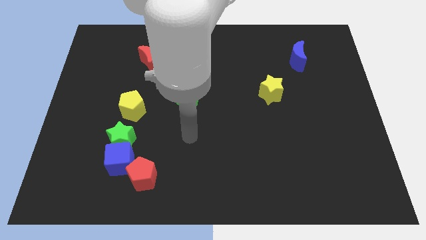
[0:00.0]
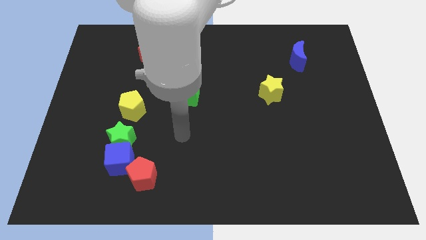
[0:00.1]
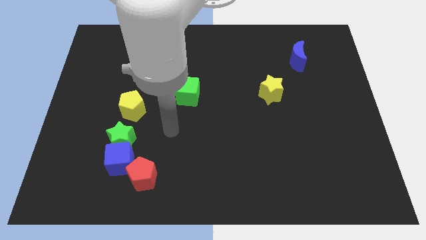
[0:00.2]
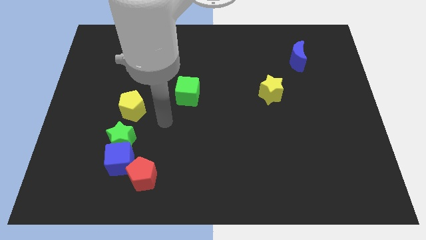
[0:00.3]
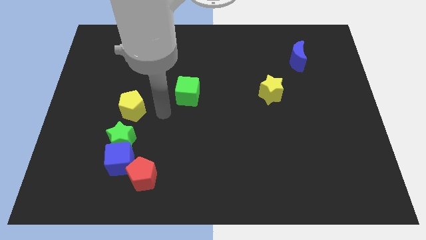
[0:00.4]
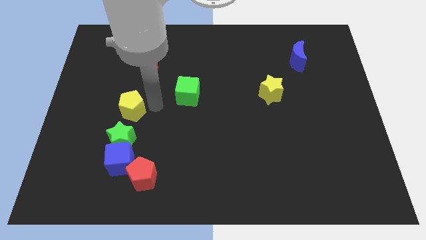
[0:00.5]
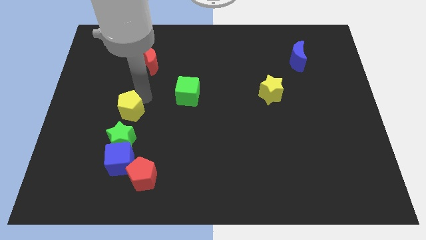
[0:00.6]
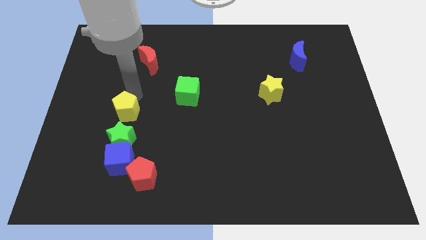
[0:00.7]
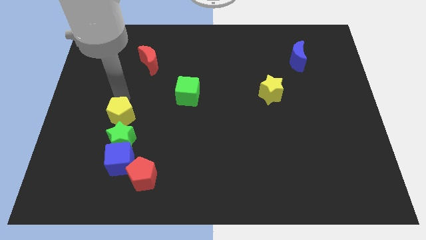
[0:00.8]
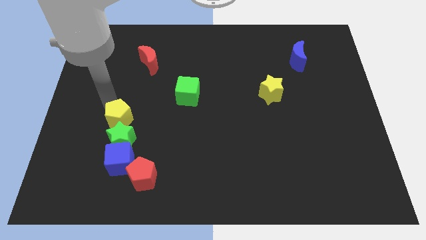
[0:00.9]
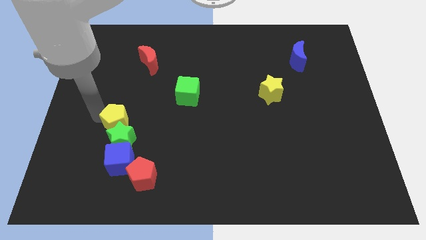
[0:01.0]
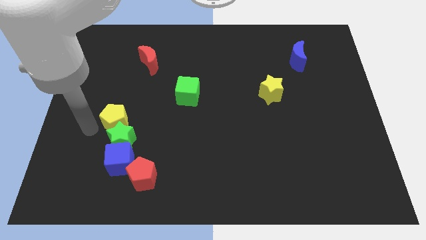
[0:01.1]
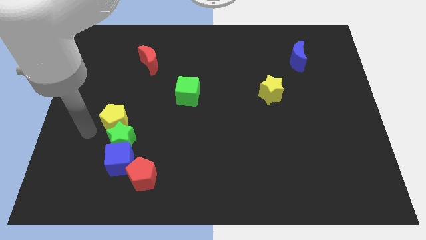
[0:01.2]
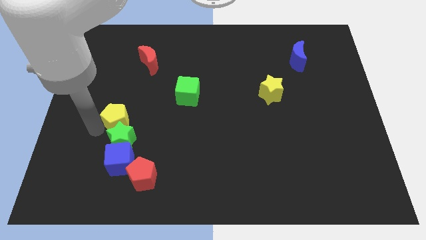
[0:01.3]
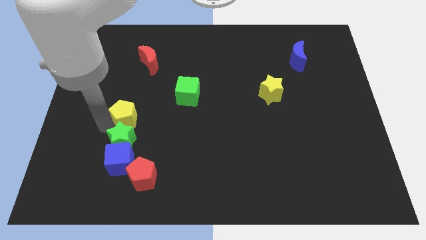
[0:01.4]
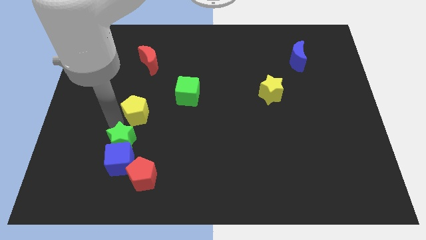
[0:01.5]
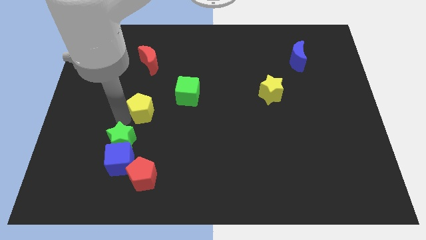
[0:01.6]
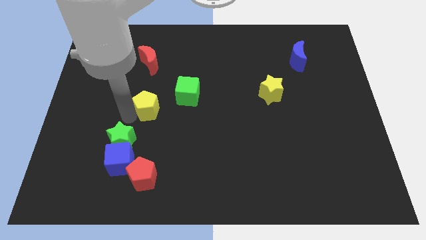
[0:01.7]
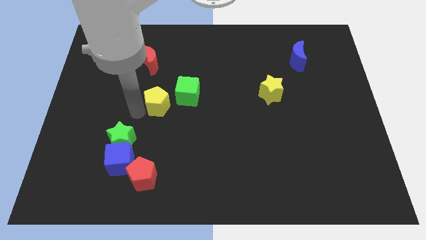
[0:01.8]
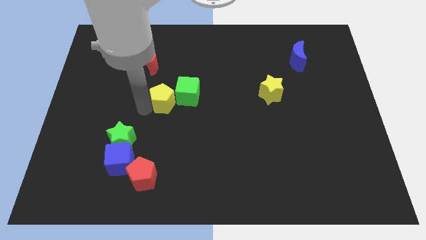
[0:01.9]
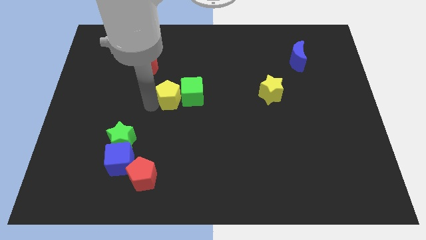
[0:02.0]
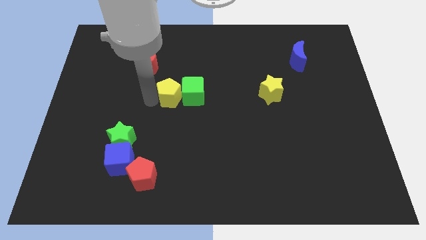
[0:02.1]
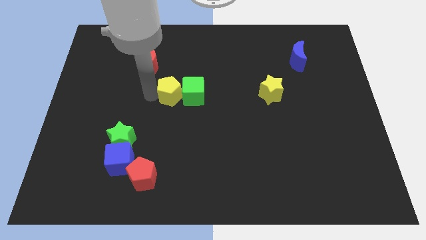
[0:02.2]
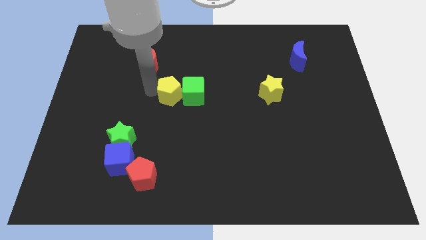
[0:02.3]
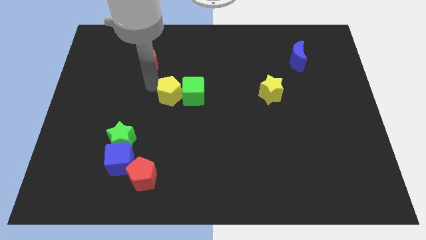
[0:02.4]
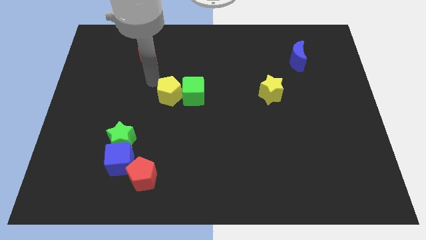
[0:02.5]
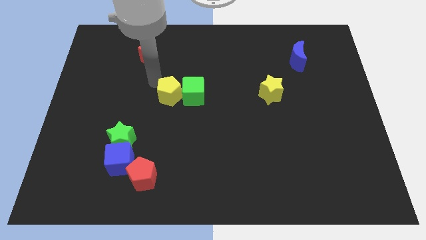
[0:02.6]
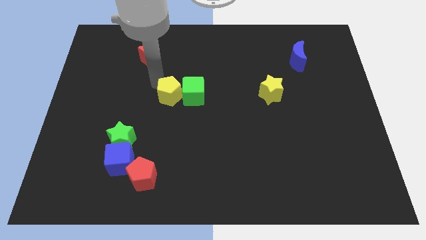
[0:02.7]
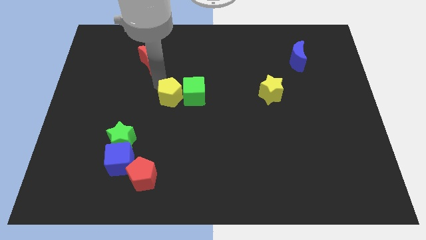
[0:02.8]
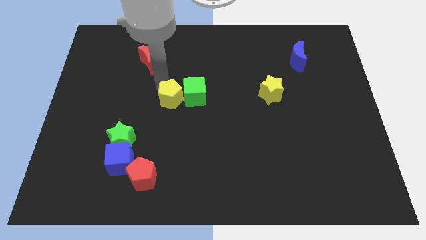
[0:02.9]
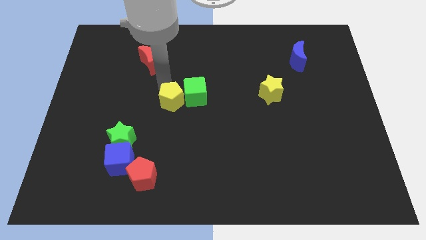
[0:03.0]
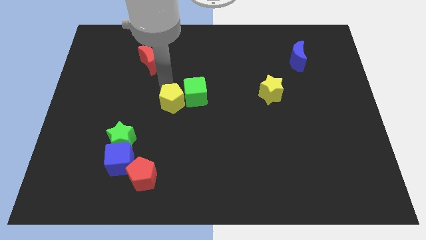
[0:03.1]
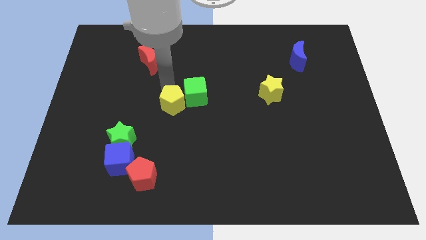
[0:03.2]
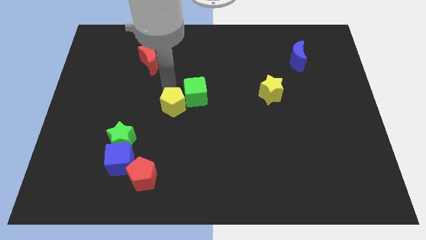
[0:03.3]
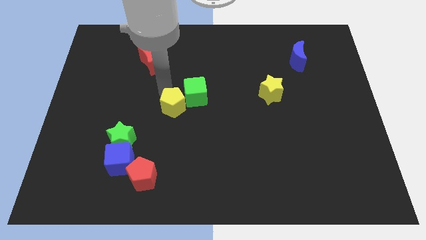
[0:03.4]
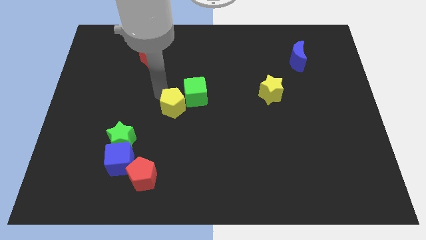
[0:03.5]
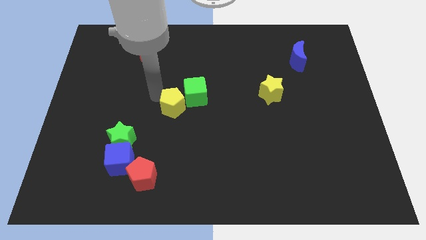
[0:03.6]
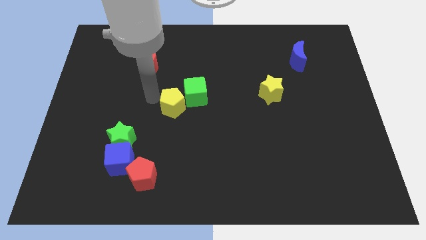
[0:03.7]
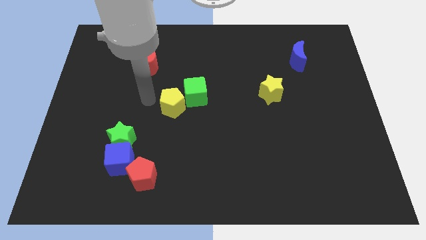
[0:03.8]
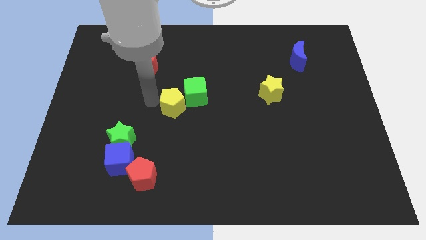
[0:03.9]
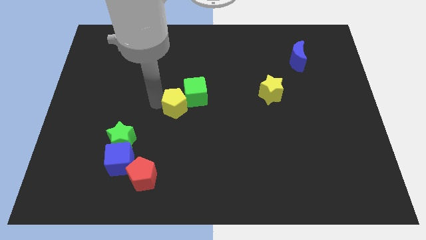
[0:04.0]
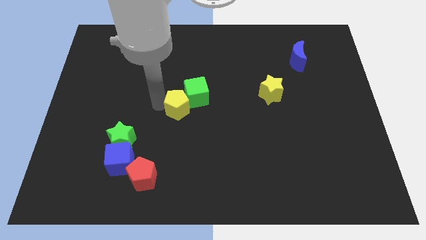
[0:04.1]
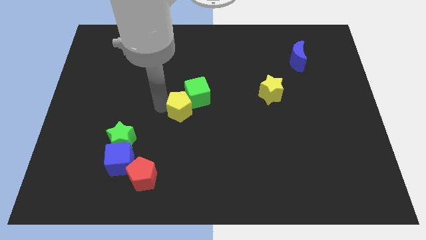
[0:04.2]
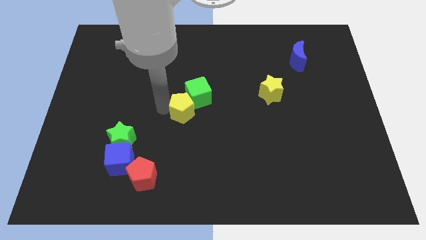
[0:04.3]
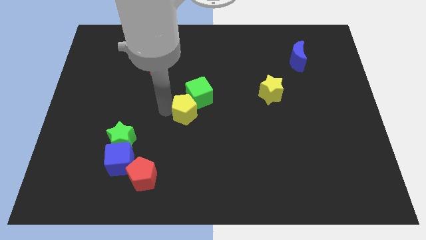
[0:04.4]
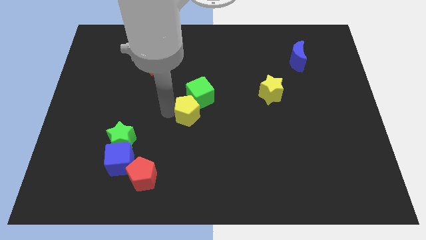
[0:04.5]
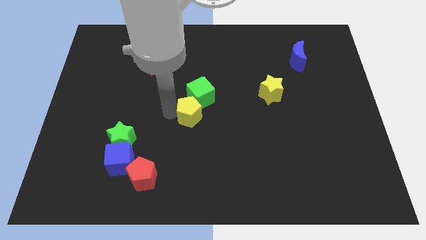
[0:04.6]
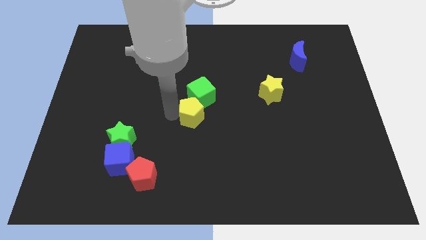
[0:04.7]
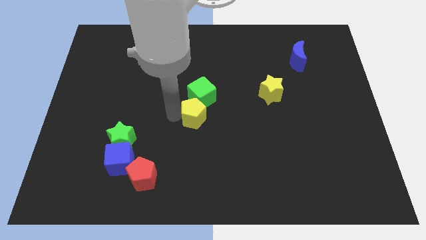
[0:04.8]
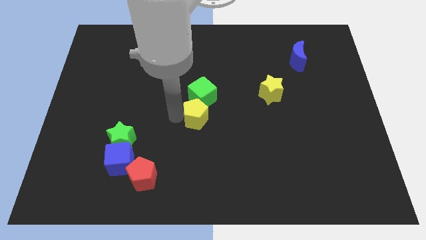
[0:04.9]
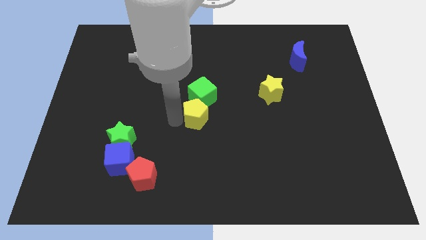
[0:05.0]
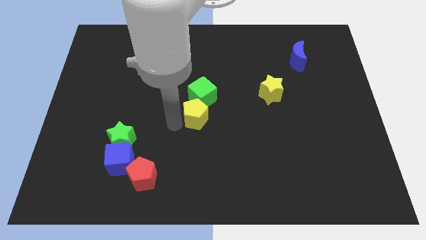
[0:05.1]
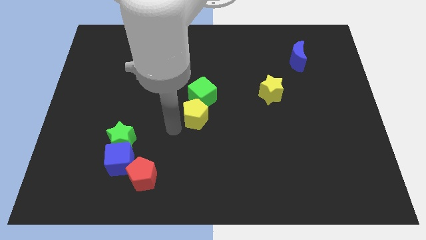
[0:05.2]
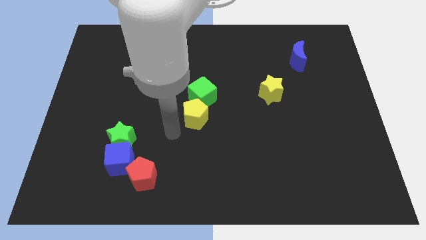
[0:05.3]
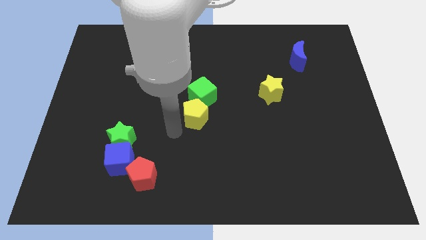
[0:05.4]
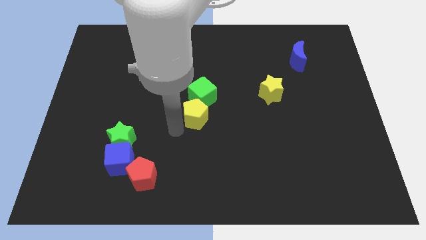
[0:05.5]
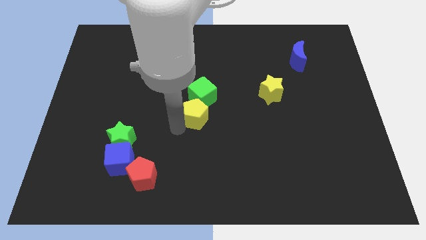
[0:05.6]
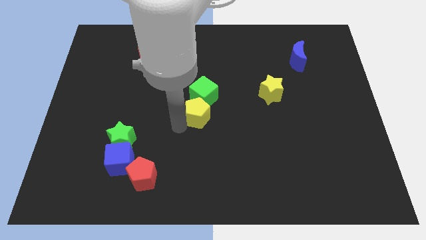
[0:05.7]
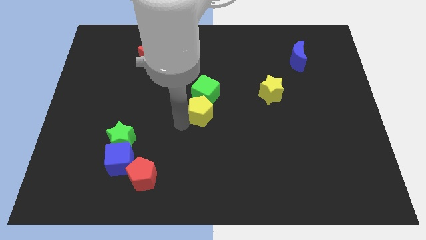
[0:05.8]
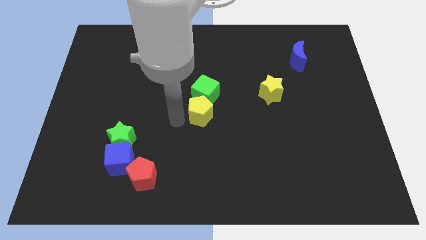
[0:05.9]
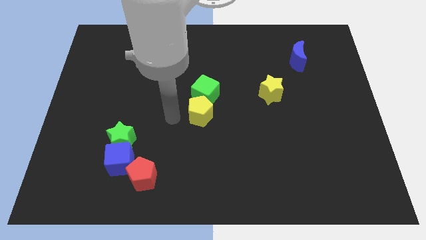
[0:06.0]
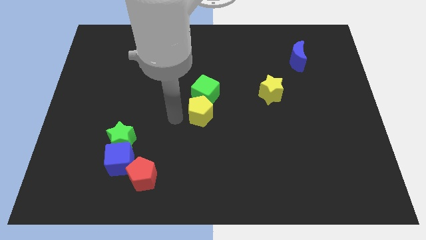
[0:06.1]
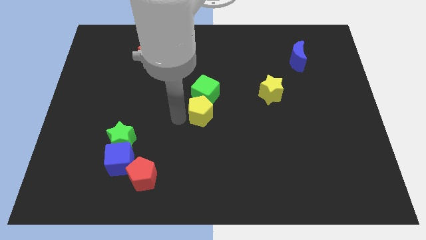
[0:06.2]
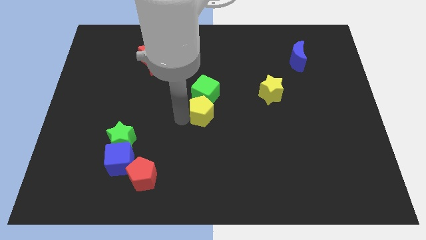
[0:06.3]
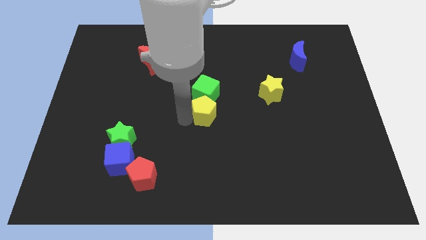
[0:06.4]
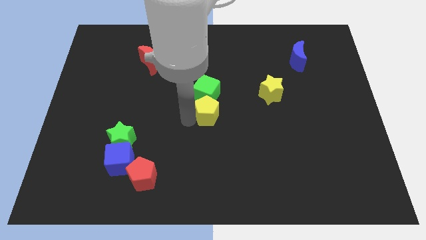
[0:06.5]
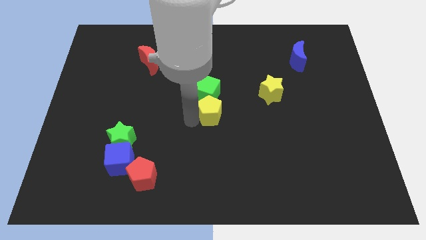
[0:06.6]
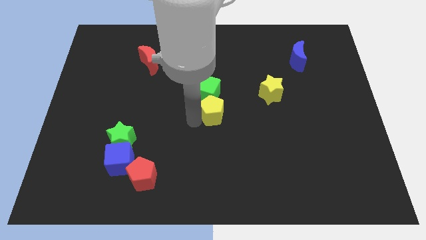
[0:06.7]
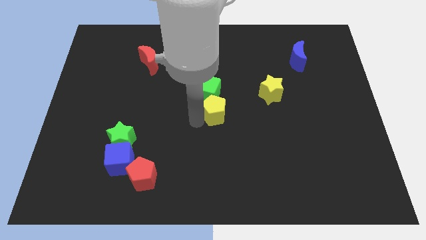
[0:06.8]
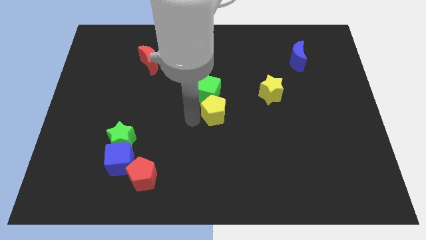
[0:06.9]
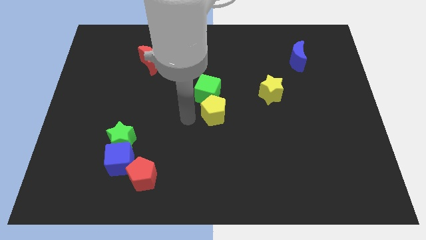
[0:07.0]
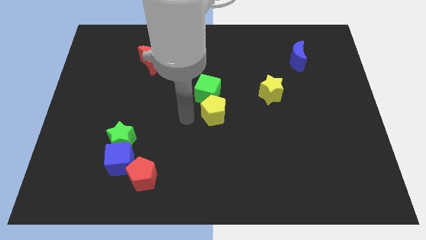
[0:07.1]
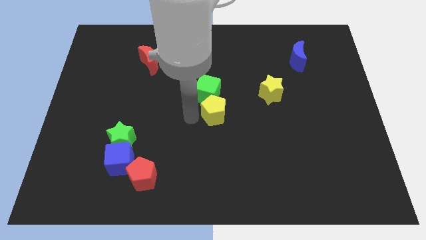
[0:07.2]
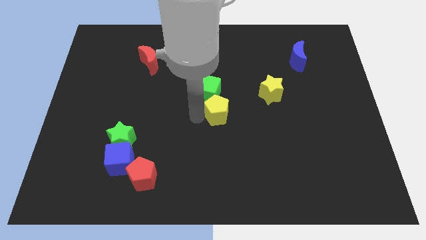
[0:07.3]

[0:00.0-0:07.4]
push the yellow pentagon to the right

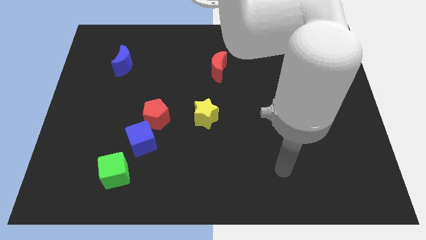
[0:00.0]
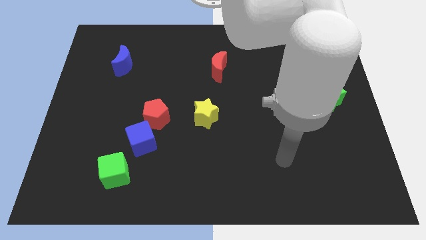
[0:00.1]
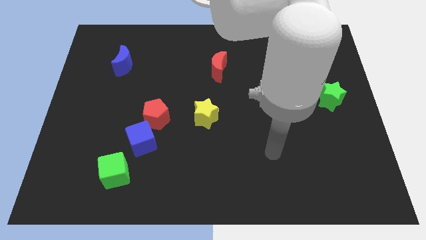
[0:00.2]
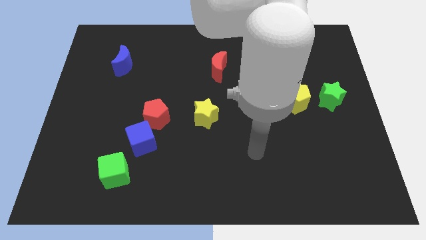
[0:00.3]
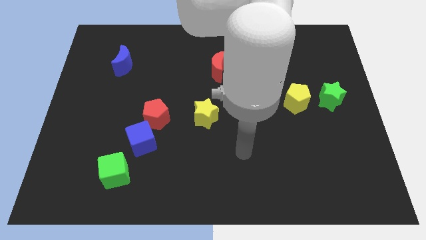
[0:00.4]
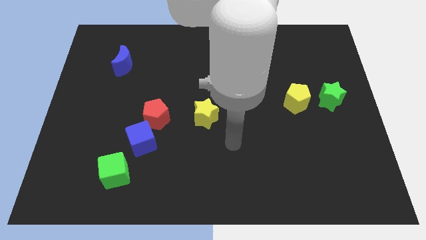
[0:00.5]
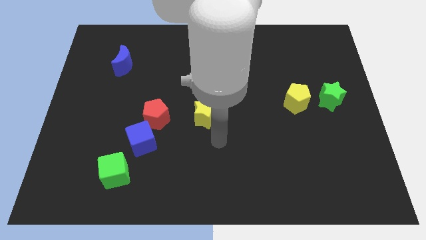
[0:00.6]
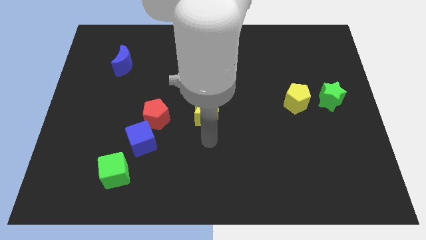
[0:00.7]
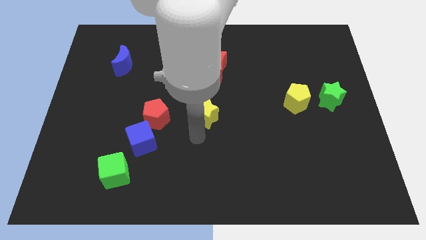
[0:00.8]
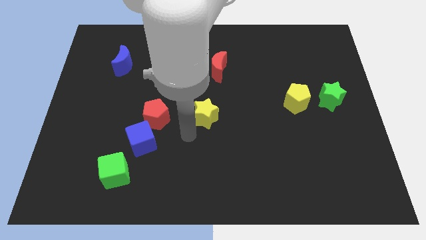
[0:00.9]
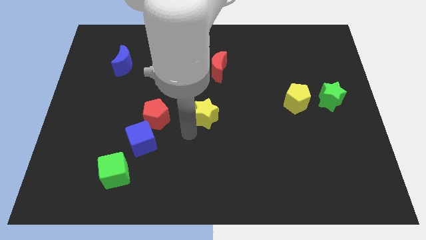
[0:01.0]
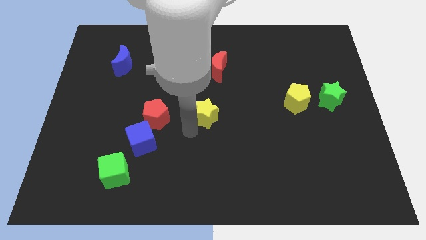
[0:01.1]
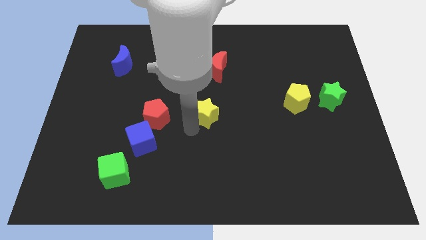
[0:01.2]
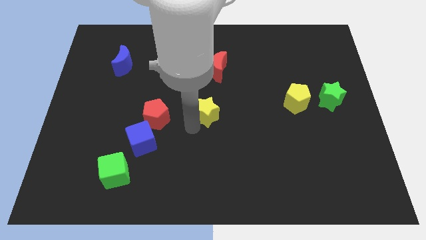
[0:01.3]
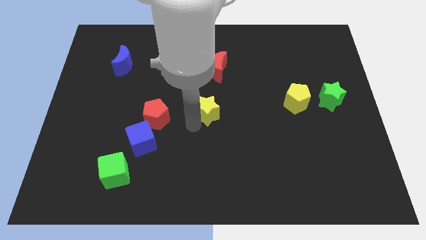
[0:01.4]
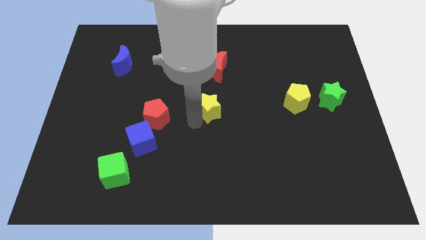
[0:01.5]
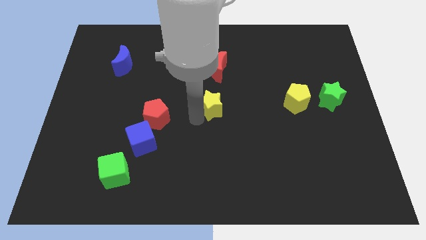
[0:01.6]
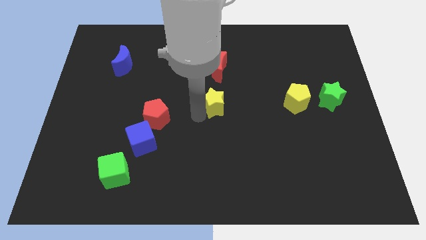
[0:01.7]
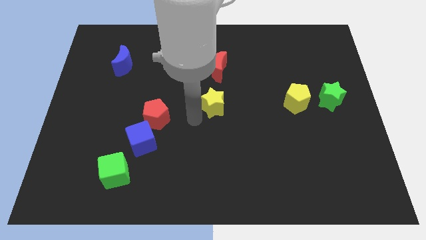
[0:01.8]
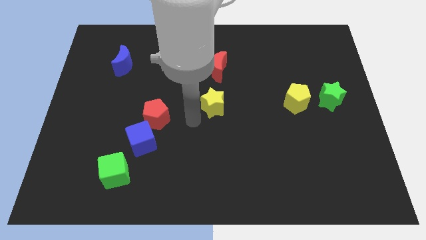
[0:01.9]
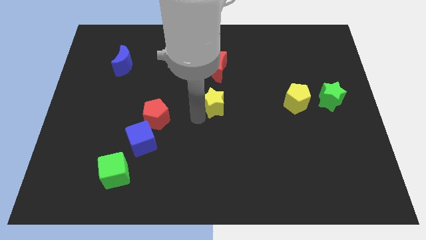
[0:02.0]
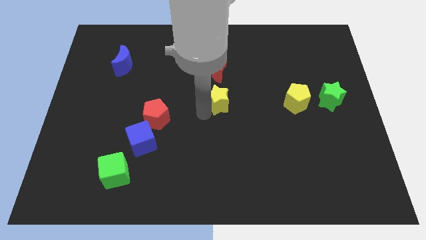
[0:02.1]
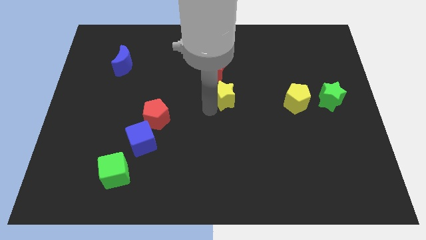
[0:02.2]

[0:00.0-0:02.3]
move the yellow star a bit upwards and to the right diagonally
